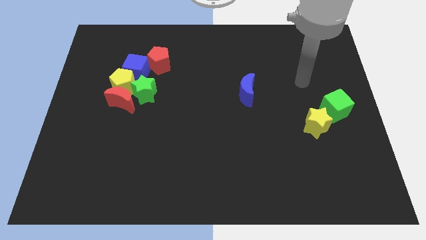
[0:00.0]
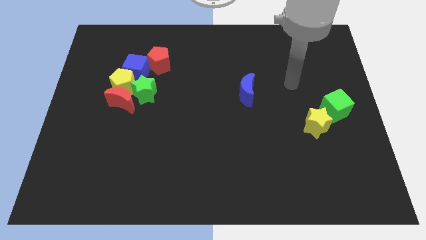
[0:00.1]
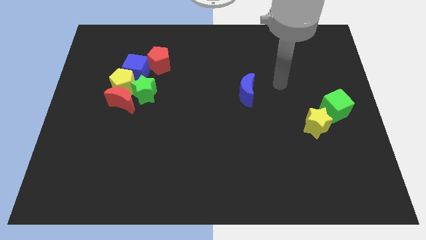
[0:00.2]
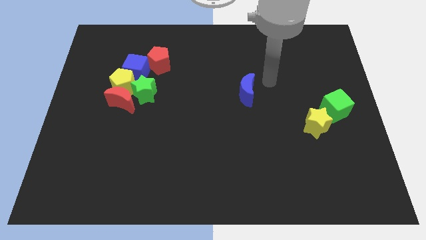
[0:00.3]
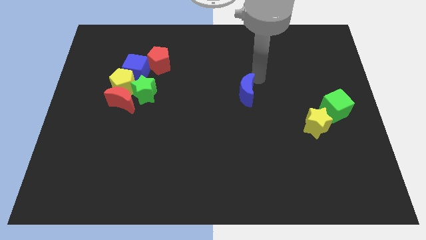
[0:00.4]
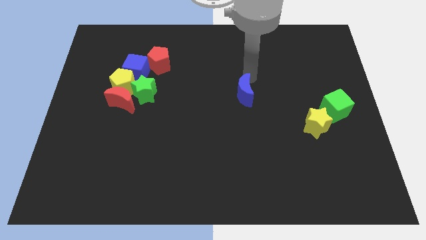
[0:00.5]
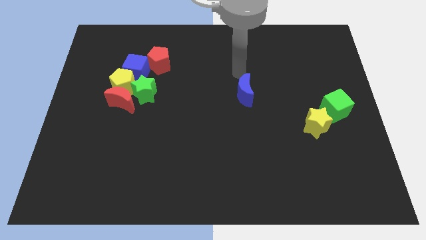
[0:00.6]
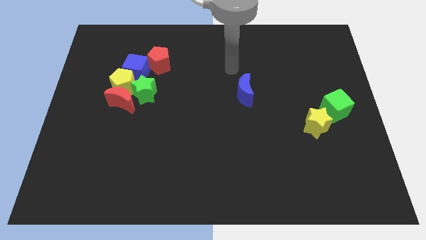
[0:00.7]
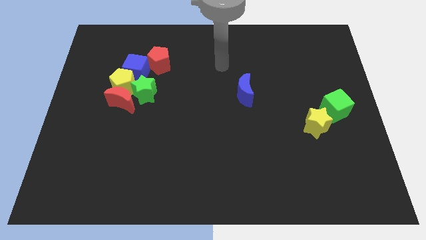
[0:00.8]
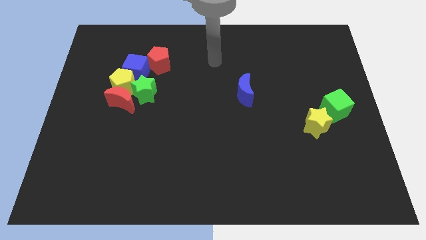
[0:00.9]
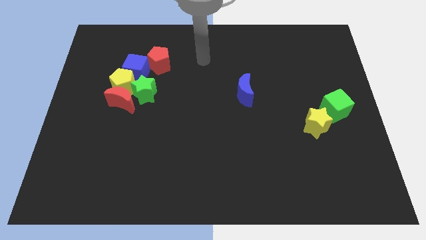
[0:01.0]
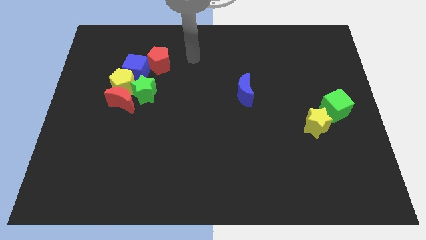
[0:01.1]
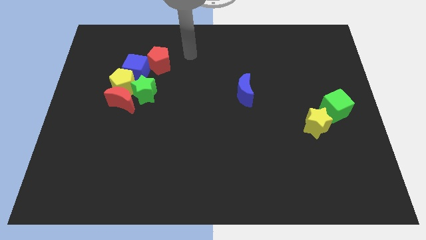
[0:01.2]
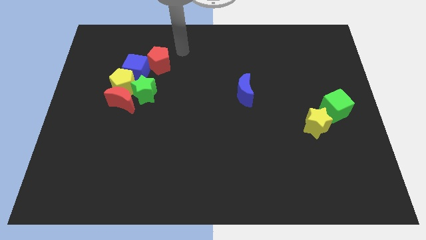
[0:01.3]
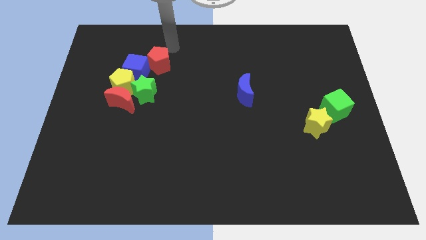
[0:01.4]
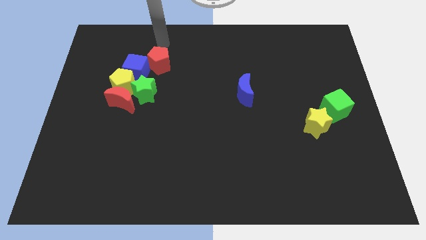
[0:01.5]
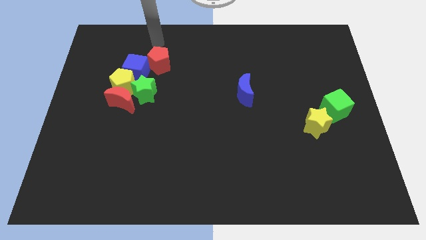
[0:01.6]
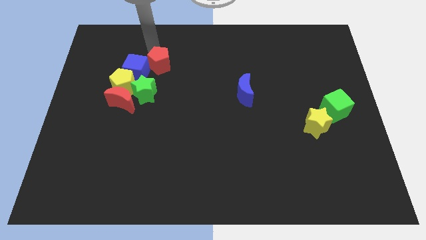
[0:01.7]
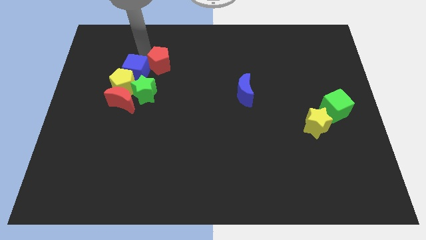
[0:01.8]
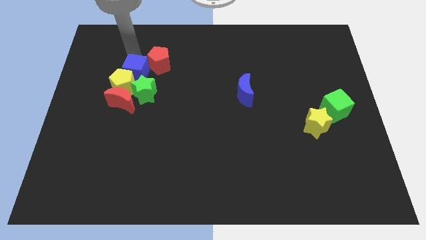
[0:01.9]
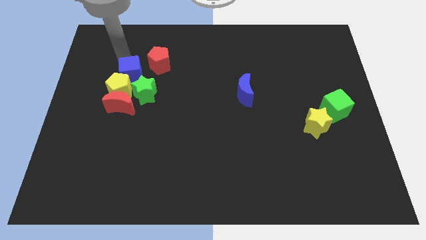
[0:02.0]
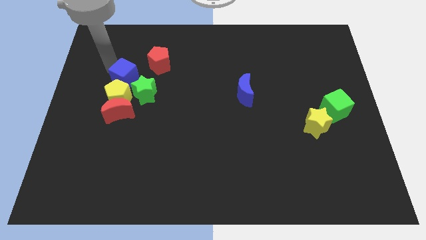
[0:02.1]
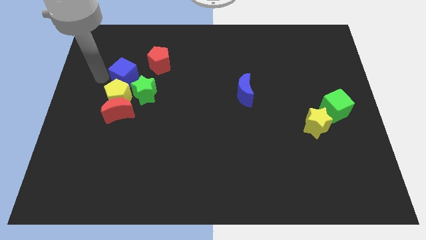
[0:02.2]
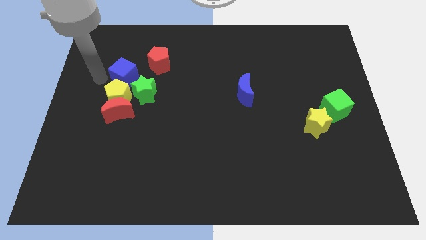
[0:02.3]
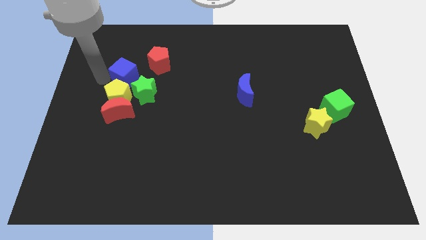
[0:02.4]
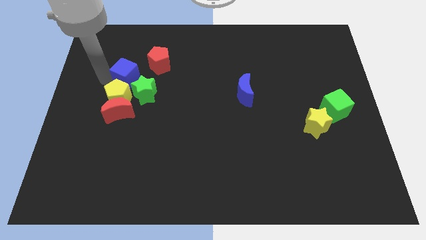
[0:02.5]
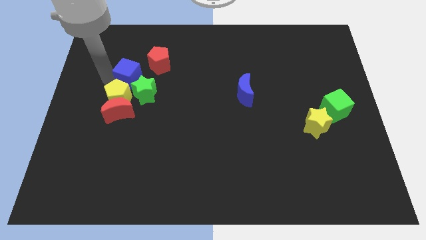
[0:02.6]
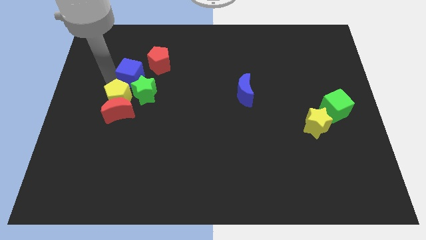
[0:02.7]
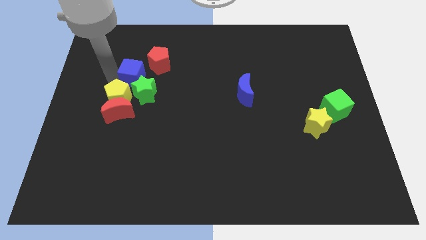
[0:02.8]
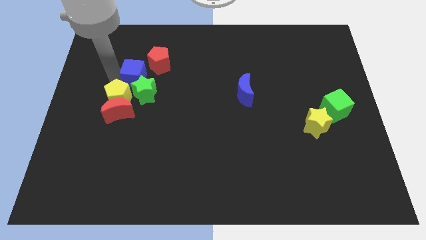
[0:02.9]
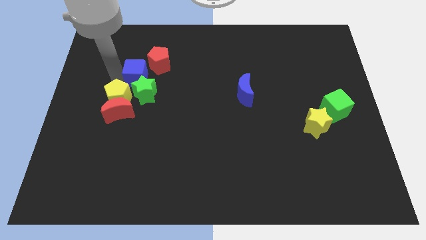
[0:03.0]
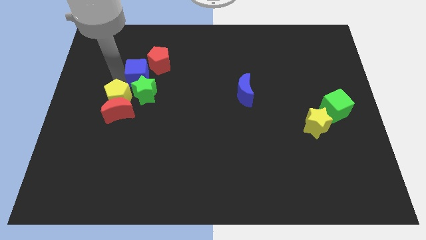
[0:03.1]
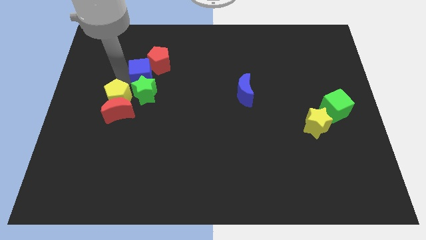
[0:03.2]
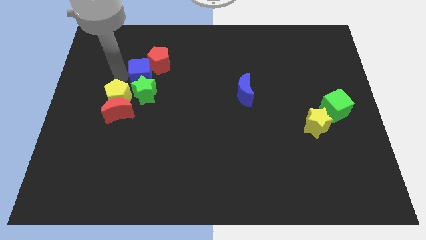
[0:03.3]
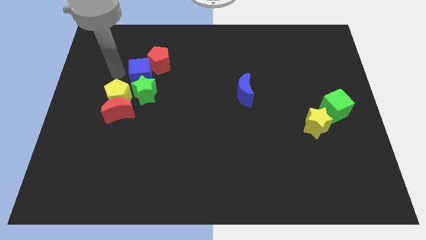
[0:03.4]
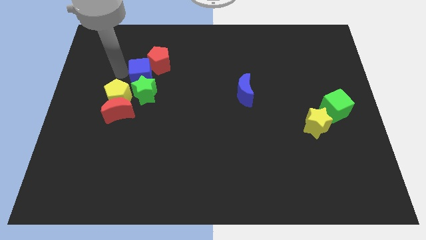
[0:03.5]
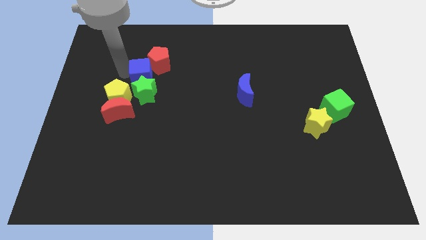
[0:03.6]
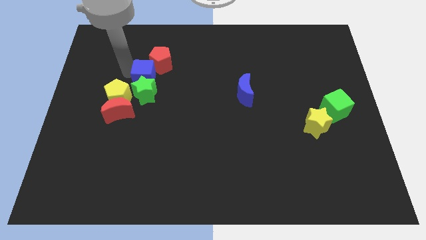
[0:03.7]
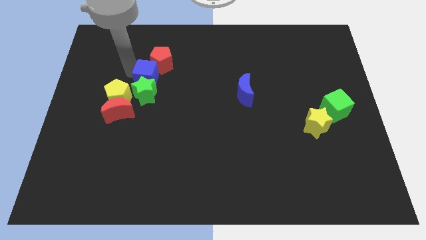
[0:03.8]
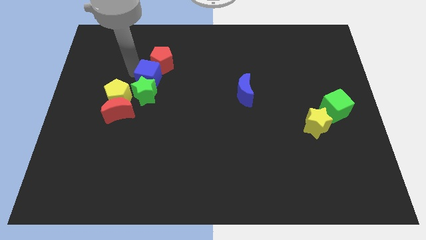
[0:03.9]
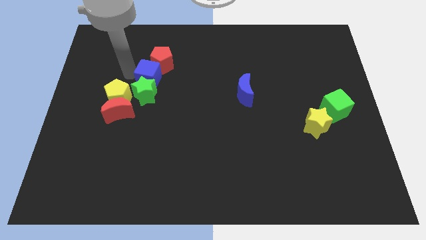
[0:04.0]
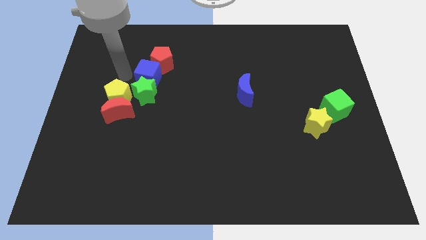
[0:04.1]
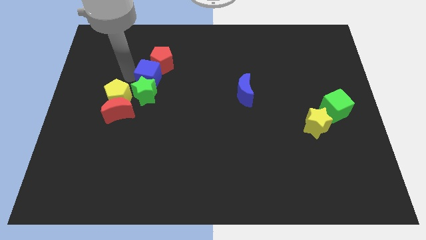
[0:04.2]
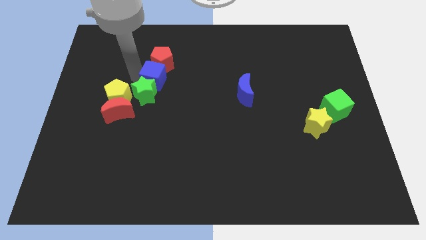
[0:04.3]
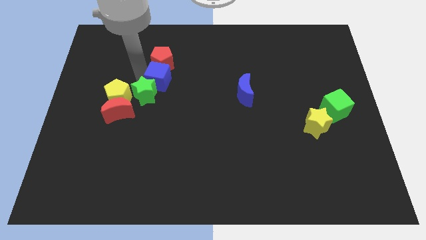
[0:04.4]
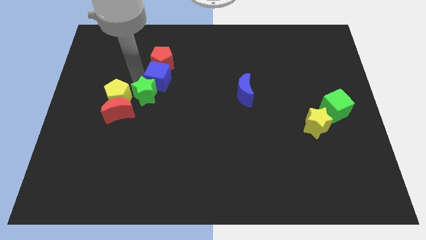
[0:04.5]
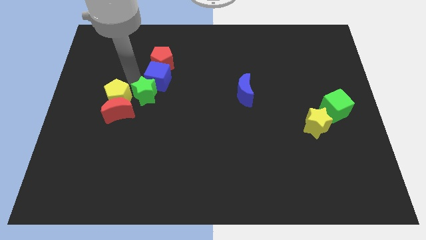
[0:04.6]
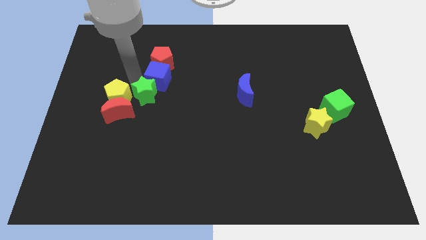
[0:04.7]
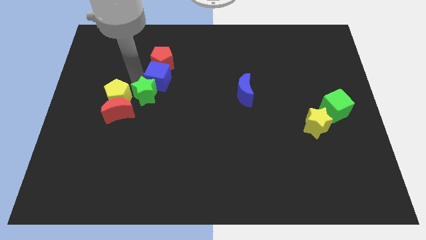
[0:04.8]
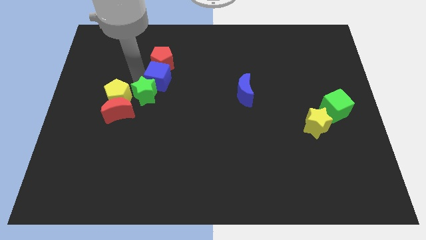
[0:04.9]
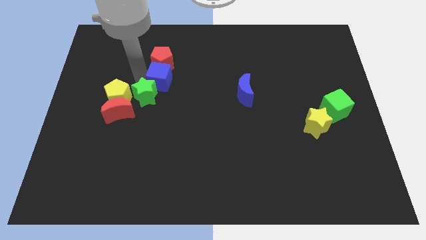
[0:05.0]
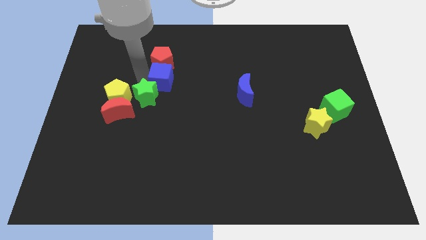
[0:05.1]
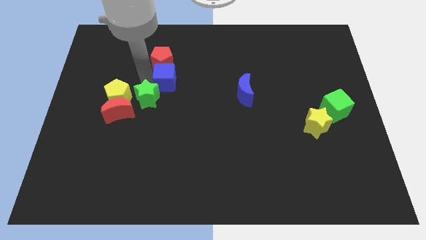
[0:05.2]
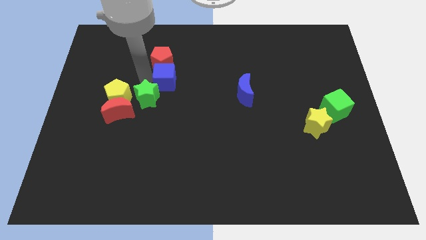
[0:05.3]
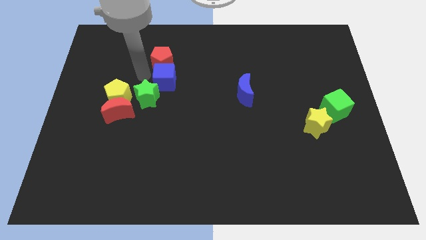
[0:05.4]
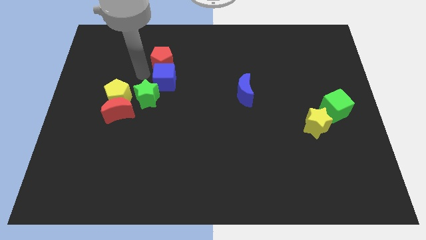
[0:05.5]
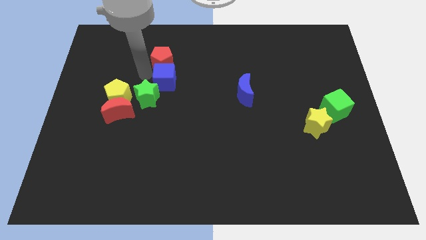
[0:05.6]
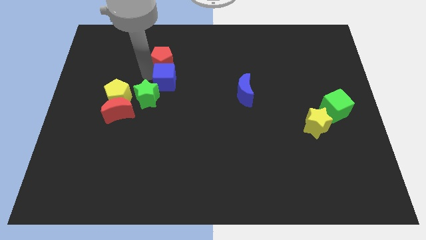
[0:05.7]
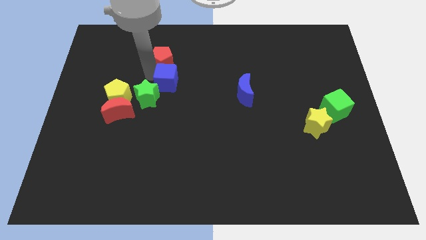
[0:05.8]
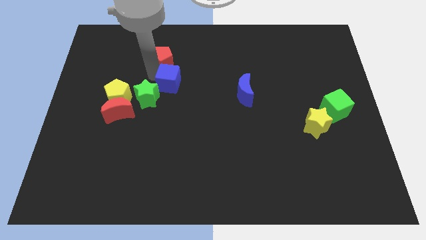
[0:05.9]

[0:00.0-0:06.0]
slide the blue cube to the center of the board

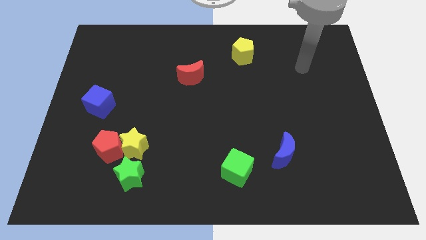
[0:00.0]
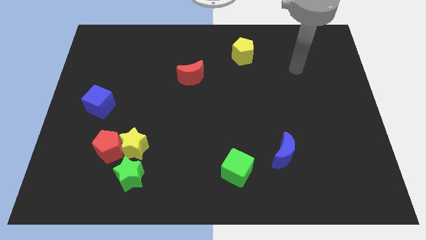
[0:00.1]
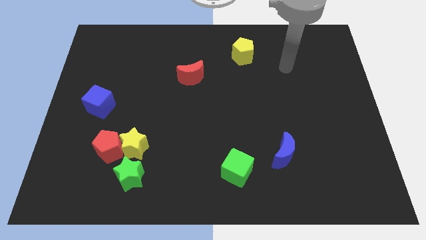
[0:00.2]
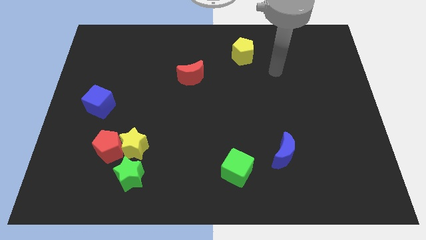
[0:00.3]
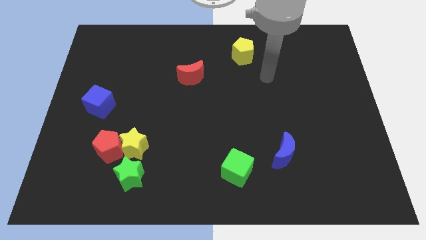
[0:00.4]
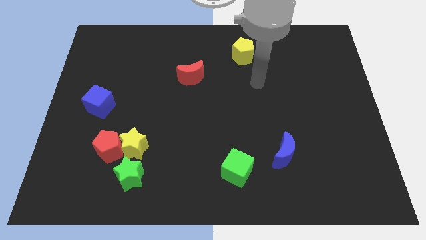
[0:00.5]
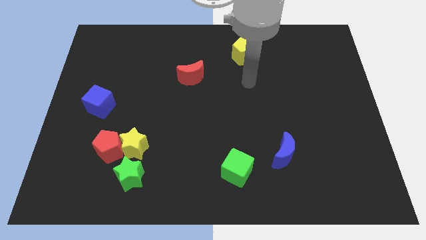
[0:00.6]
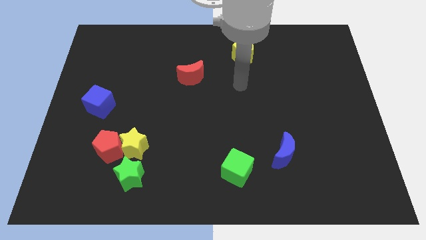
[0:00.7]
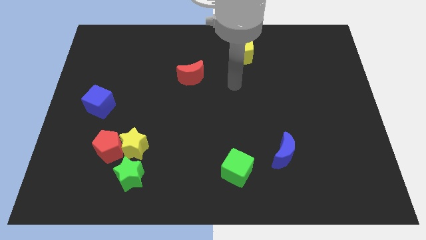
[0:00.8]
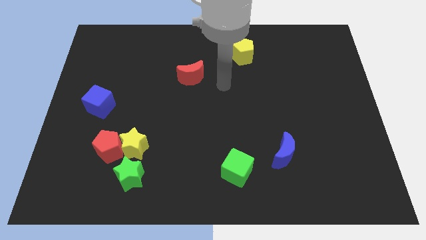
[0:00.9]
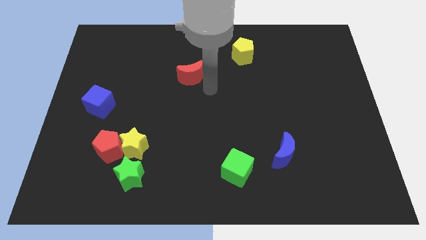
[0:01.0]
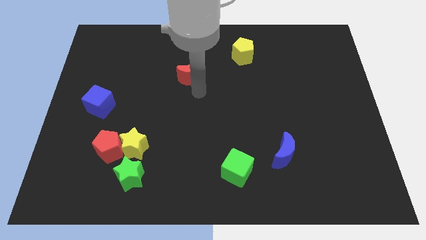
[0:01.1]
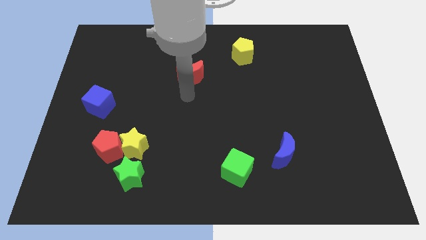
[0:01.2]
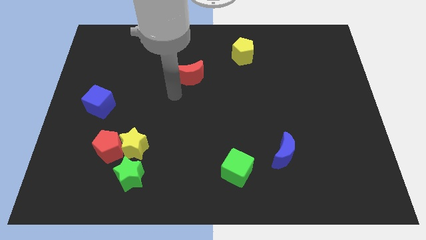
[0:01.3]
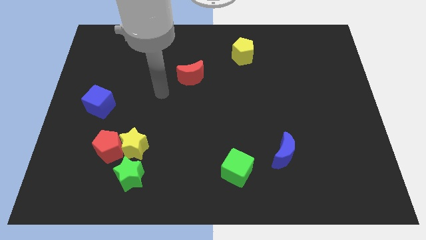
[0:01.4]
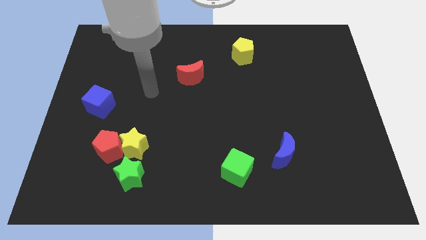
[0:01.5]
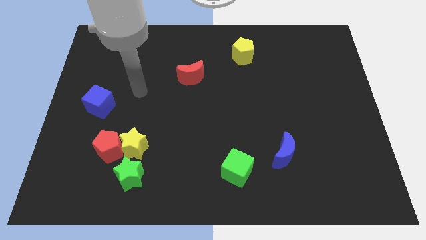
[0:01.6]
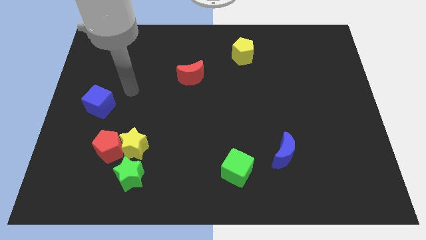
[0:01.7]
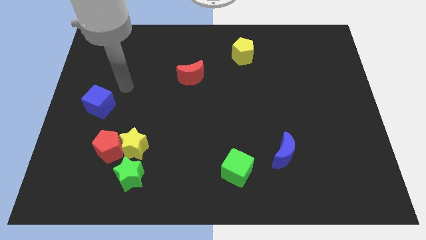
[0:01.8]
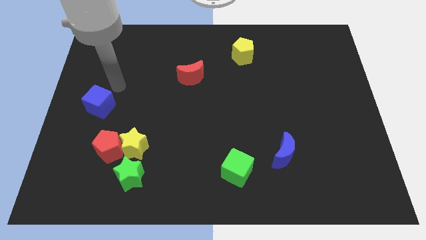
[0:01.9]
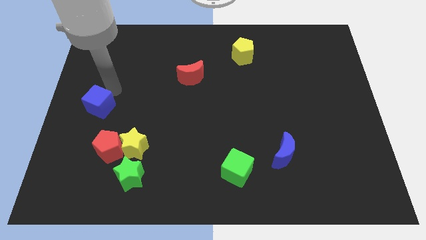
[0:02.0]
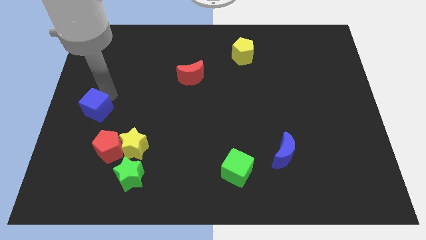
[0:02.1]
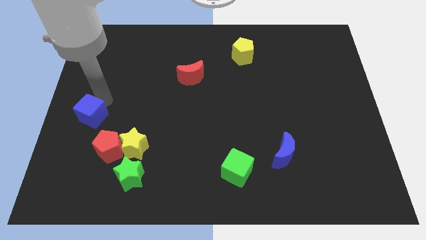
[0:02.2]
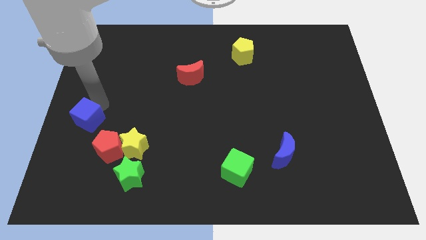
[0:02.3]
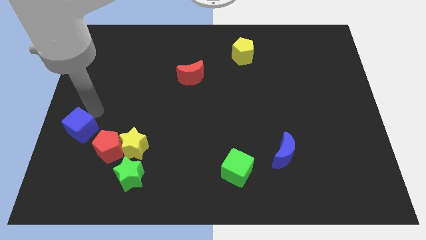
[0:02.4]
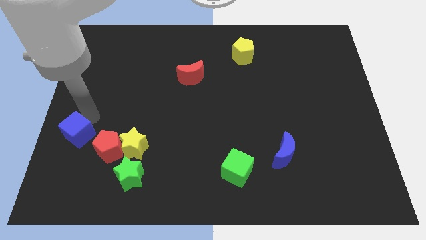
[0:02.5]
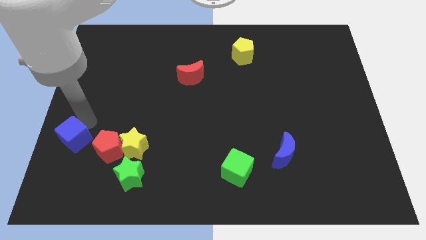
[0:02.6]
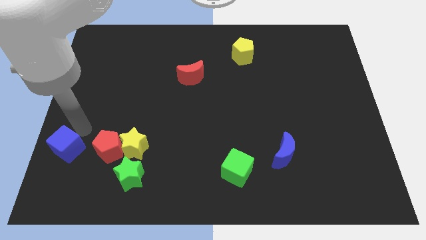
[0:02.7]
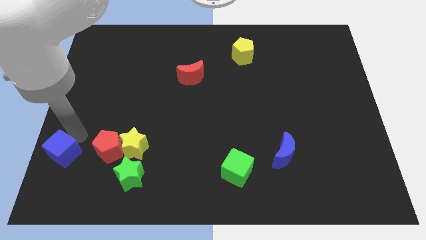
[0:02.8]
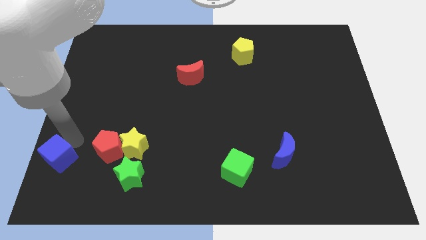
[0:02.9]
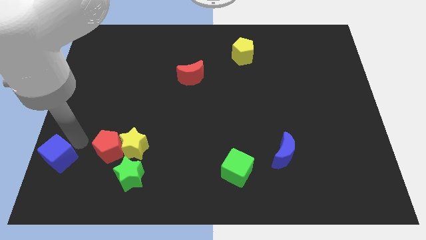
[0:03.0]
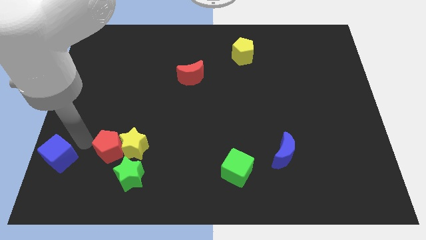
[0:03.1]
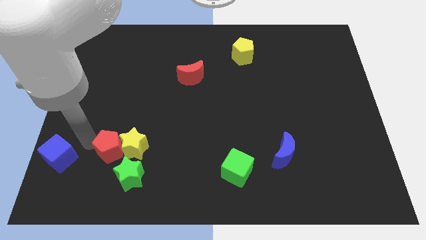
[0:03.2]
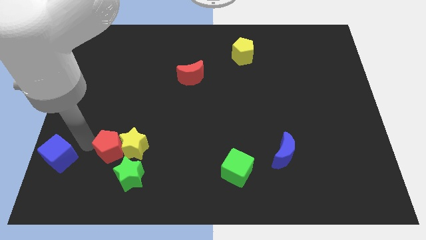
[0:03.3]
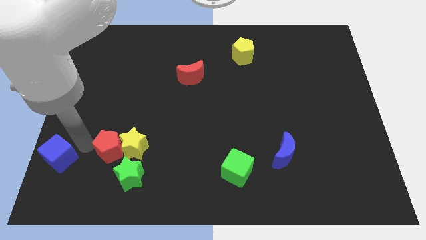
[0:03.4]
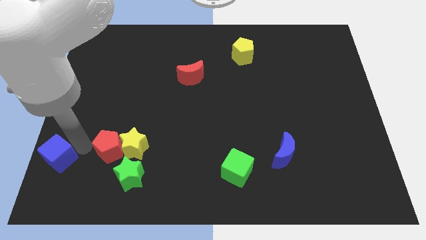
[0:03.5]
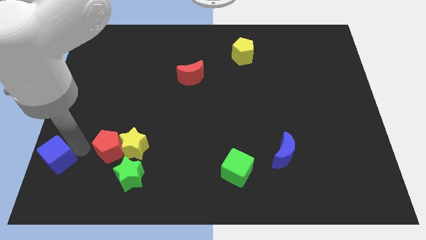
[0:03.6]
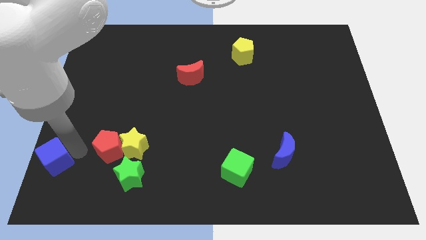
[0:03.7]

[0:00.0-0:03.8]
put the blue cube to the bottom left corner
